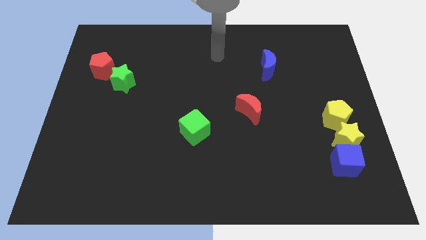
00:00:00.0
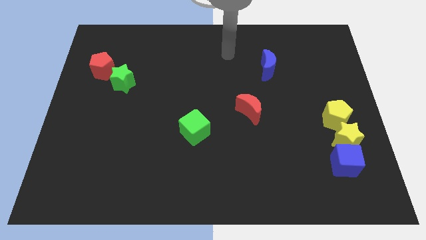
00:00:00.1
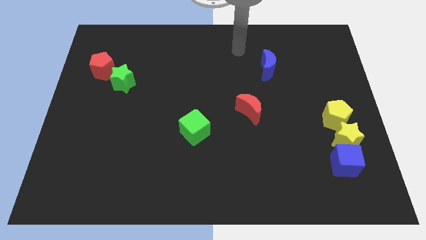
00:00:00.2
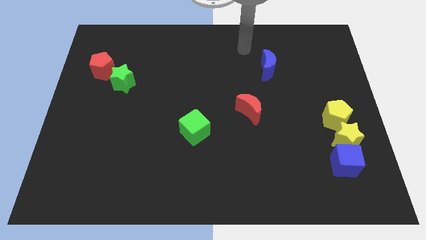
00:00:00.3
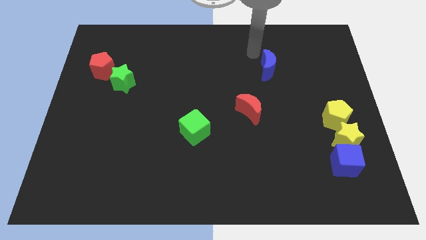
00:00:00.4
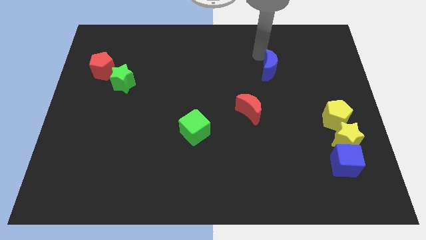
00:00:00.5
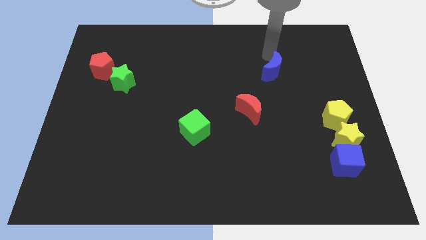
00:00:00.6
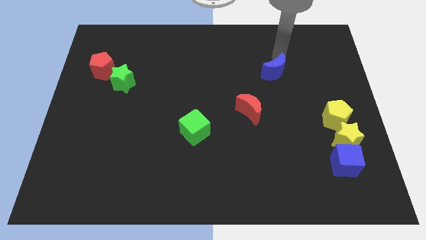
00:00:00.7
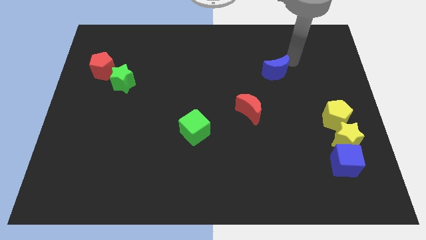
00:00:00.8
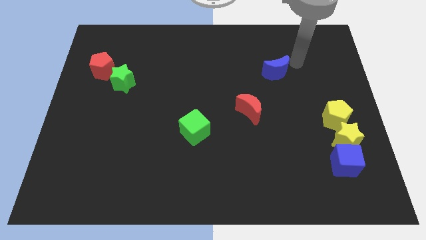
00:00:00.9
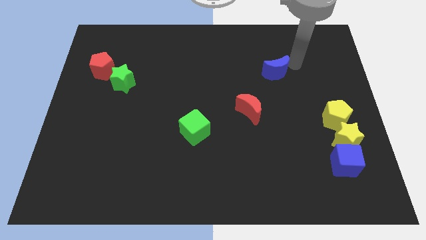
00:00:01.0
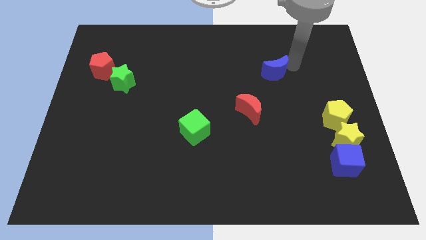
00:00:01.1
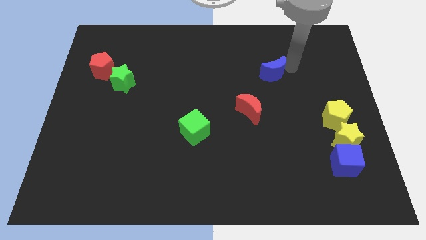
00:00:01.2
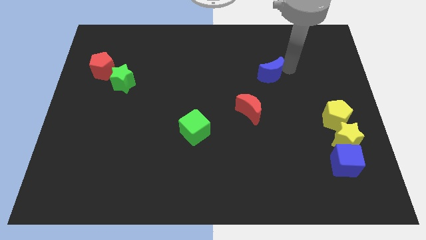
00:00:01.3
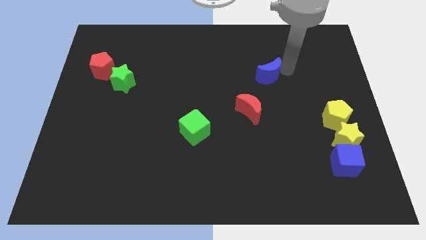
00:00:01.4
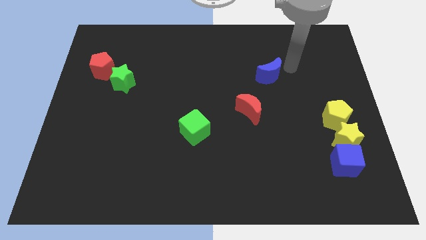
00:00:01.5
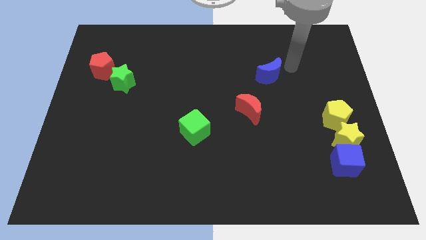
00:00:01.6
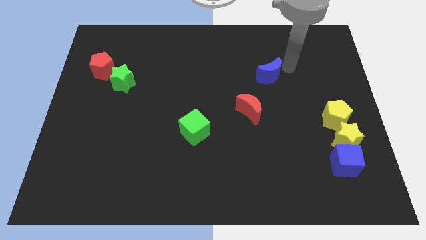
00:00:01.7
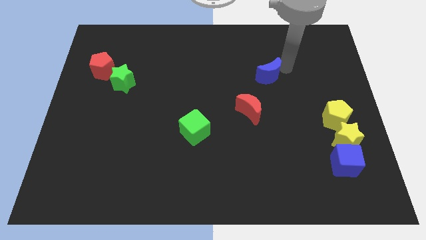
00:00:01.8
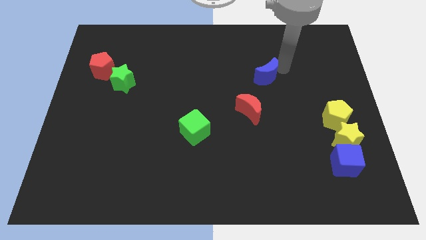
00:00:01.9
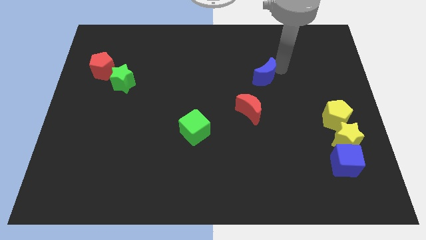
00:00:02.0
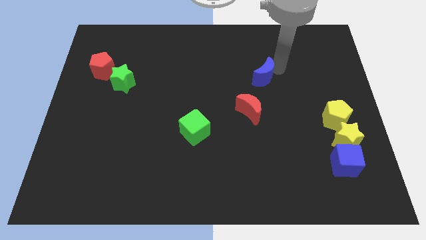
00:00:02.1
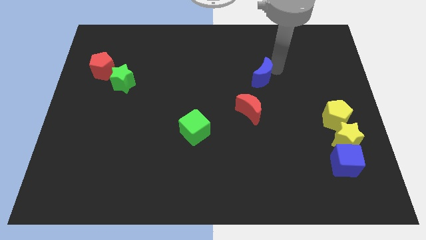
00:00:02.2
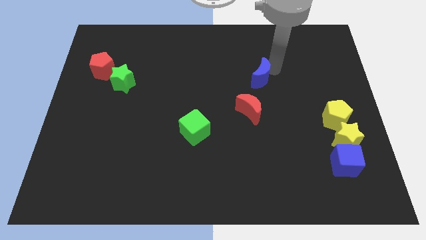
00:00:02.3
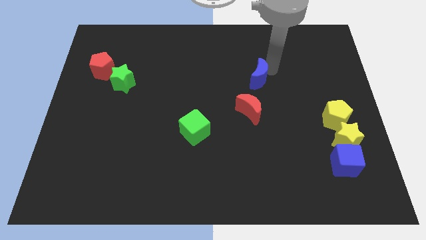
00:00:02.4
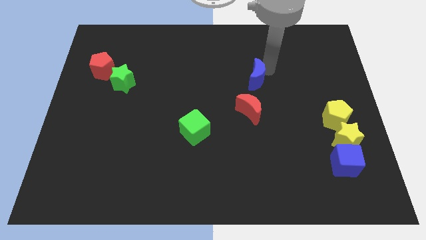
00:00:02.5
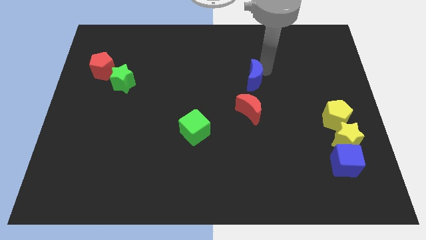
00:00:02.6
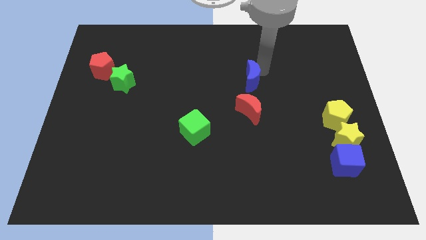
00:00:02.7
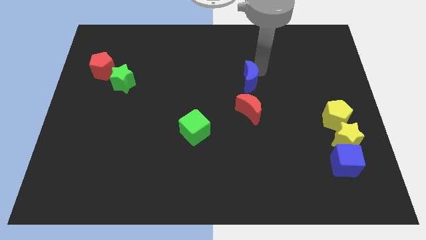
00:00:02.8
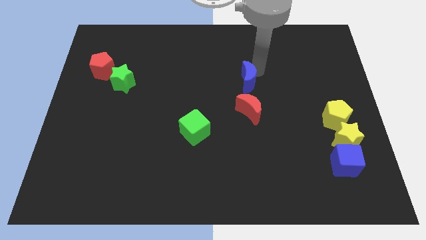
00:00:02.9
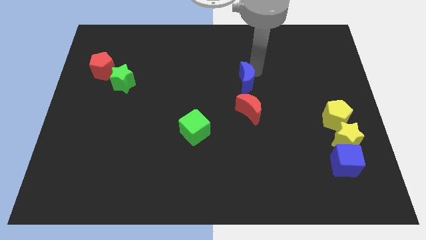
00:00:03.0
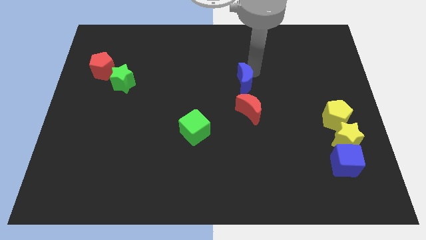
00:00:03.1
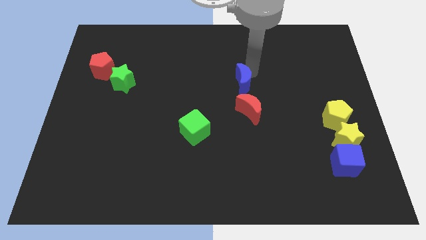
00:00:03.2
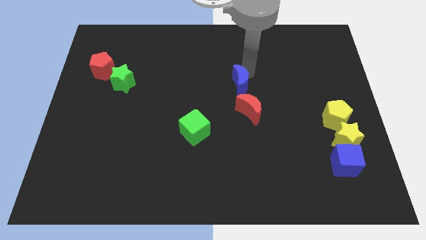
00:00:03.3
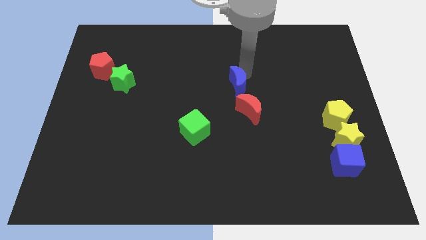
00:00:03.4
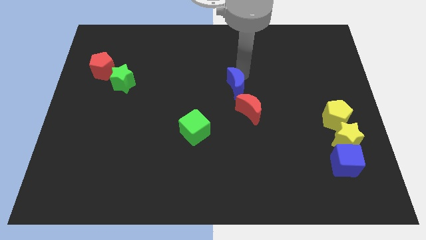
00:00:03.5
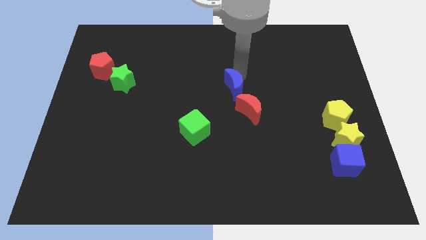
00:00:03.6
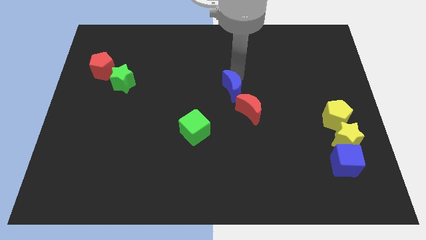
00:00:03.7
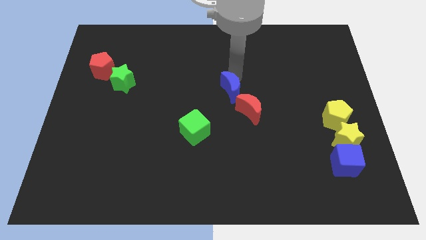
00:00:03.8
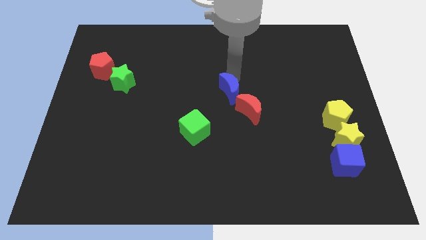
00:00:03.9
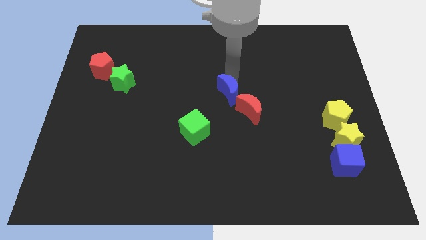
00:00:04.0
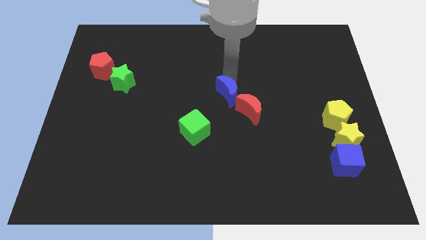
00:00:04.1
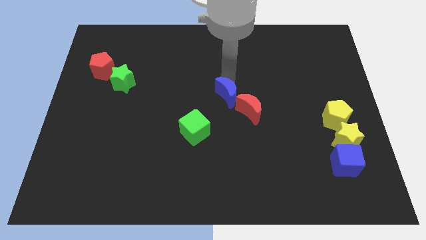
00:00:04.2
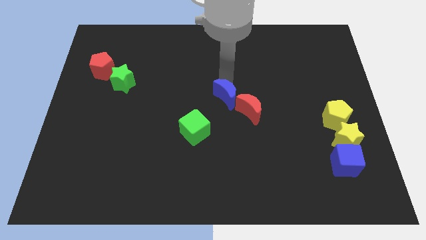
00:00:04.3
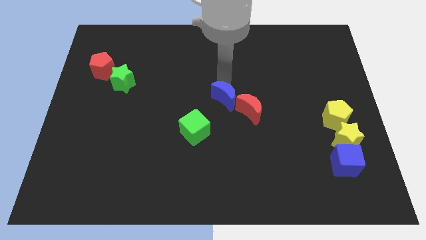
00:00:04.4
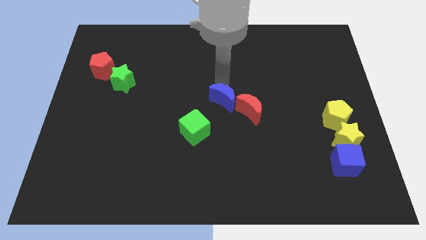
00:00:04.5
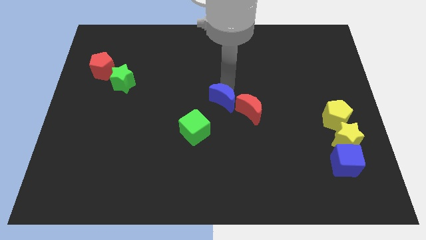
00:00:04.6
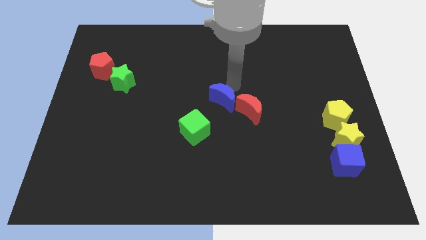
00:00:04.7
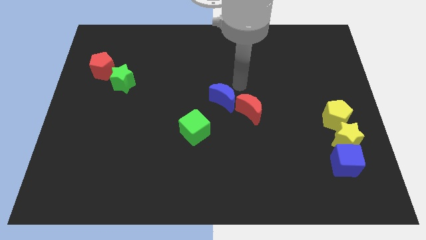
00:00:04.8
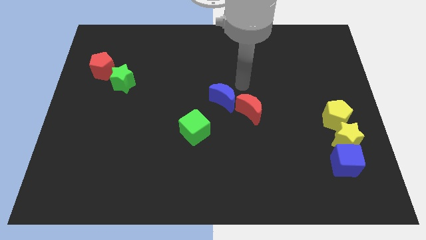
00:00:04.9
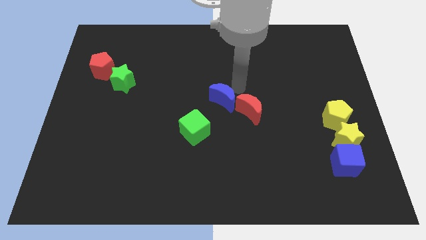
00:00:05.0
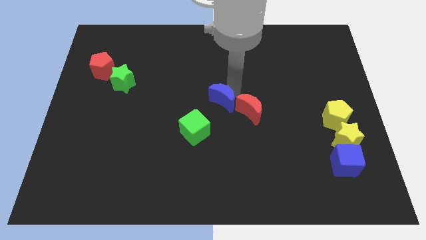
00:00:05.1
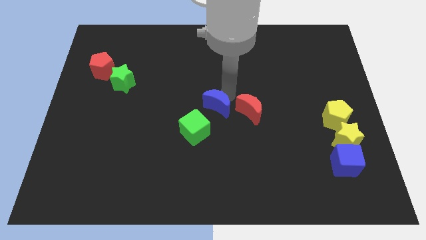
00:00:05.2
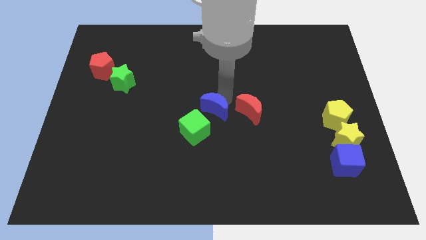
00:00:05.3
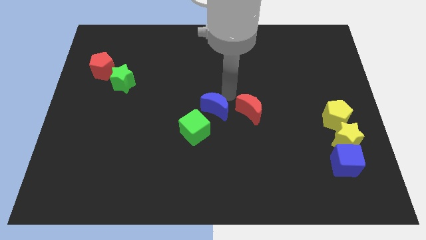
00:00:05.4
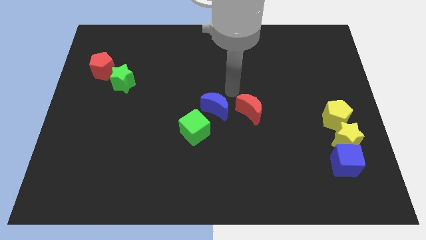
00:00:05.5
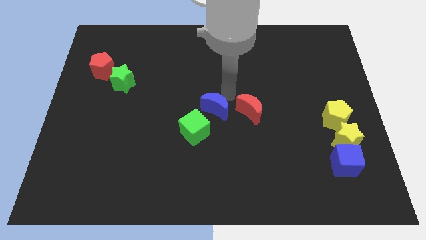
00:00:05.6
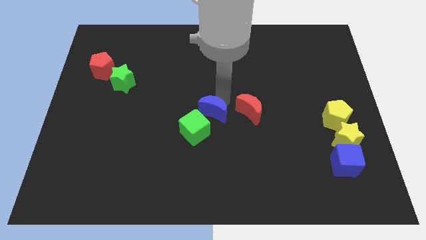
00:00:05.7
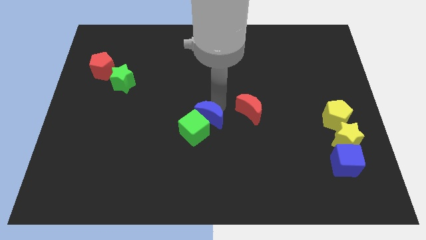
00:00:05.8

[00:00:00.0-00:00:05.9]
put the blue moon towards the green cube

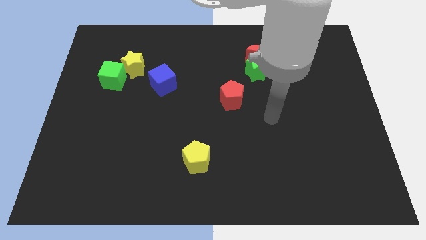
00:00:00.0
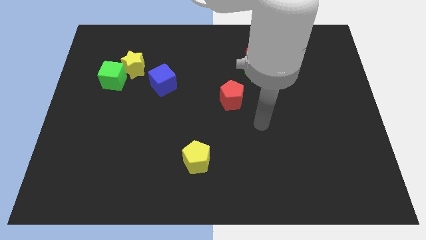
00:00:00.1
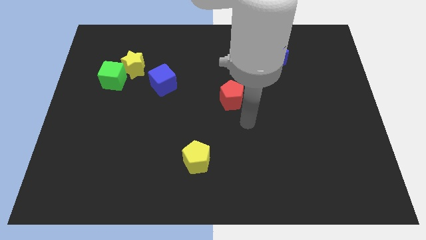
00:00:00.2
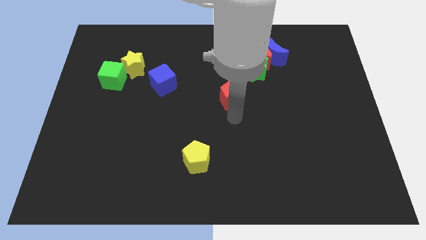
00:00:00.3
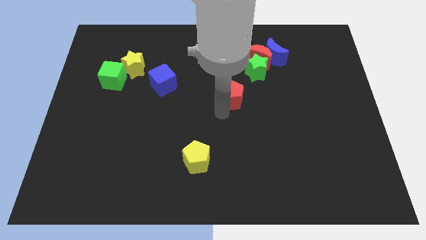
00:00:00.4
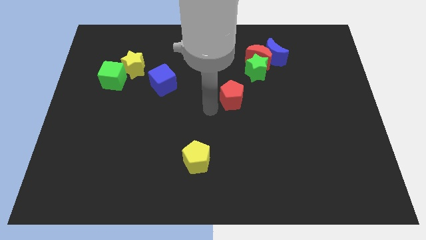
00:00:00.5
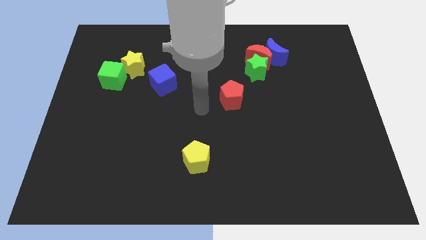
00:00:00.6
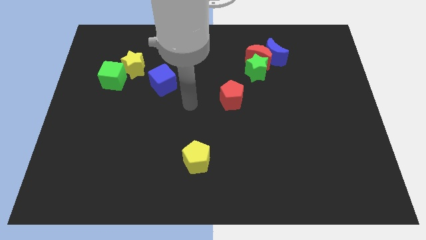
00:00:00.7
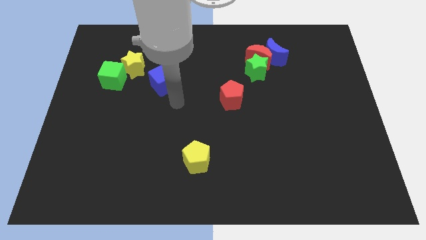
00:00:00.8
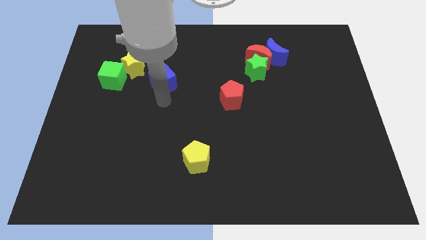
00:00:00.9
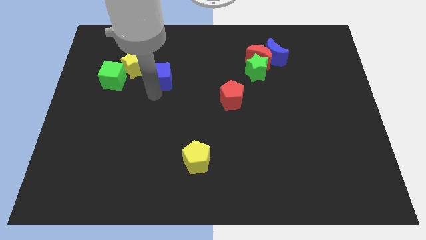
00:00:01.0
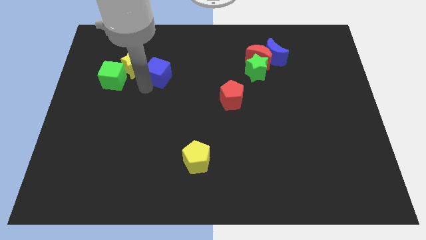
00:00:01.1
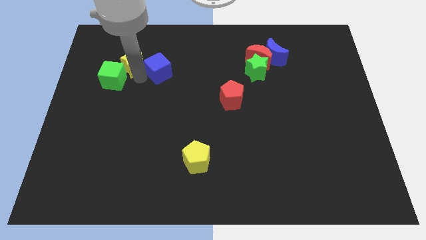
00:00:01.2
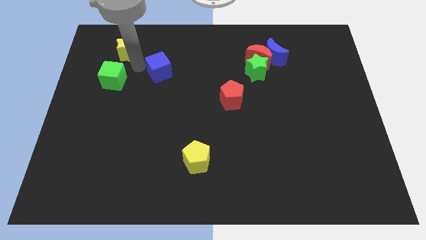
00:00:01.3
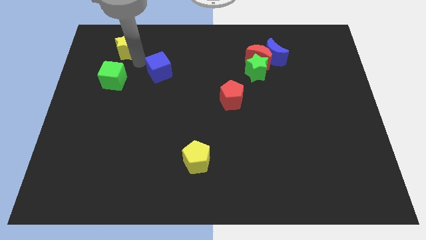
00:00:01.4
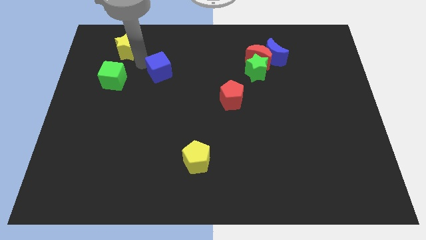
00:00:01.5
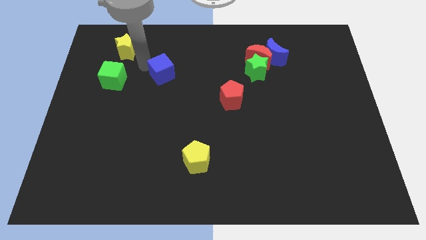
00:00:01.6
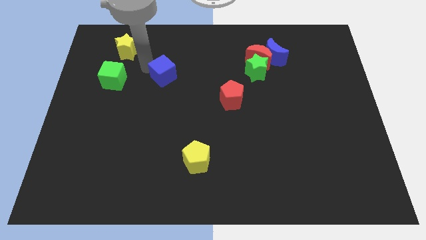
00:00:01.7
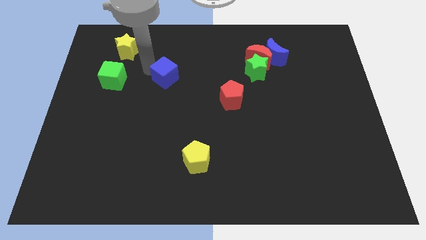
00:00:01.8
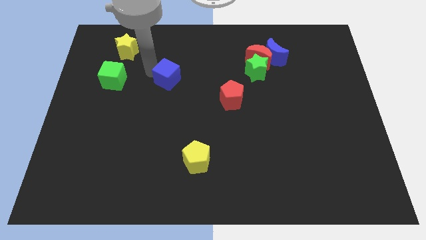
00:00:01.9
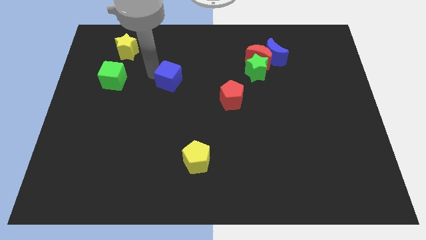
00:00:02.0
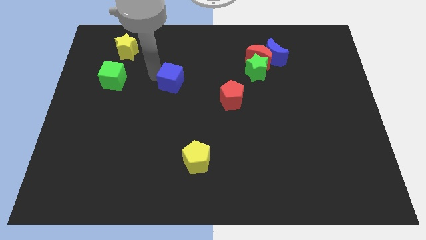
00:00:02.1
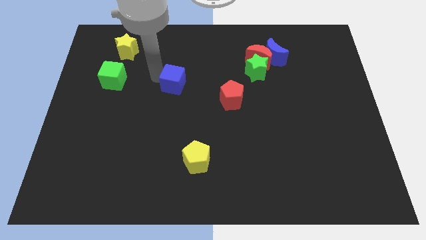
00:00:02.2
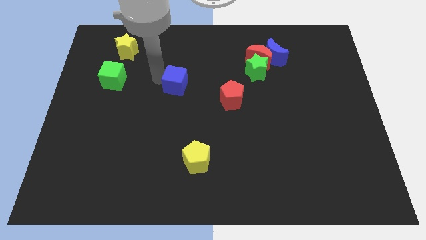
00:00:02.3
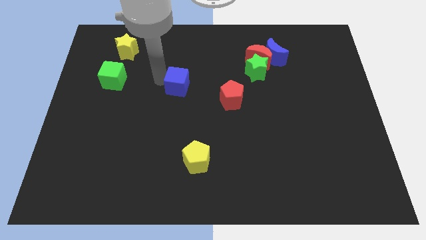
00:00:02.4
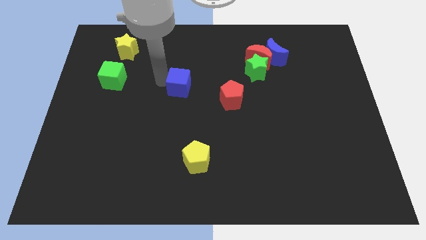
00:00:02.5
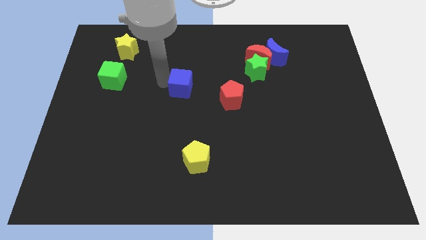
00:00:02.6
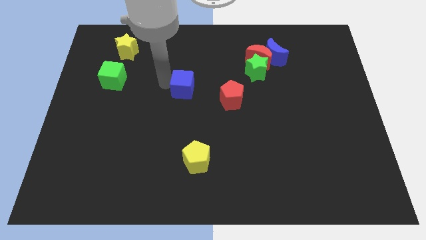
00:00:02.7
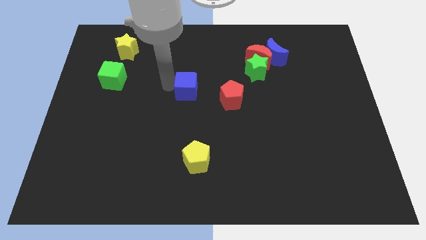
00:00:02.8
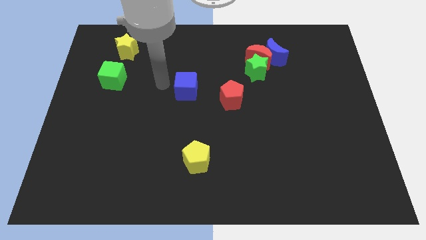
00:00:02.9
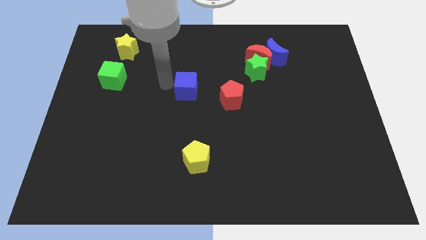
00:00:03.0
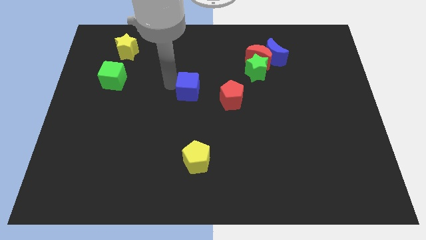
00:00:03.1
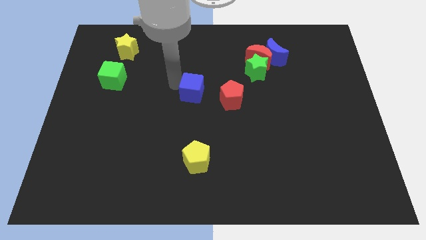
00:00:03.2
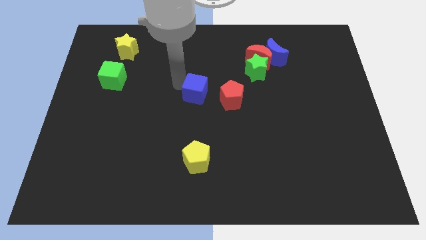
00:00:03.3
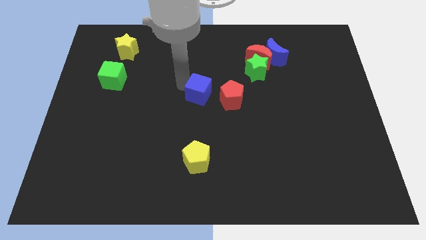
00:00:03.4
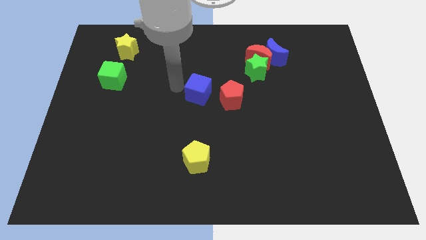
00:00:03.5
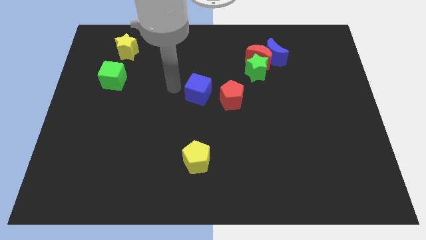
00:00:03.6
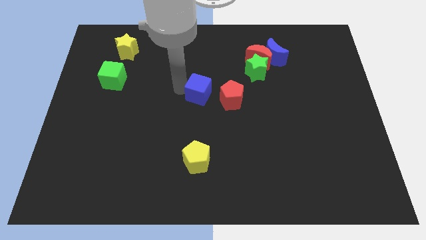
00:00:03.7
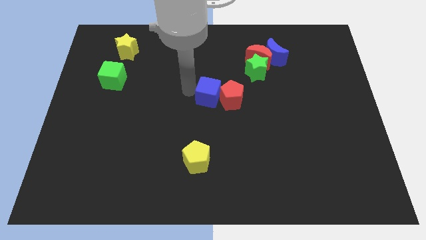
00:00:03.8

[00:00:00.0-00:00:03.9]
push the blue cube to the red pentagon
